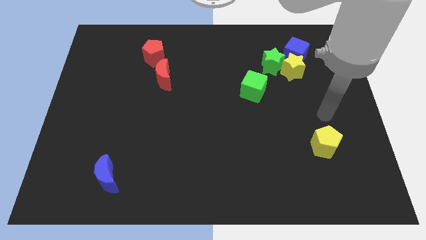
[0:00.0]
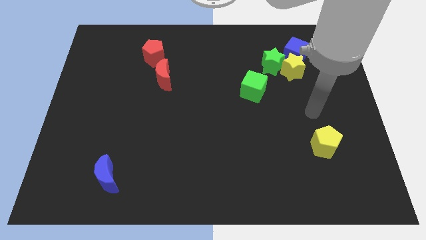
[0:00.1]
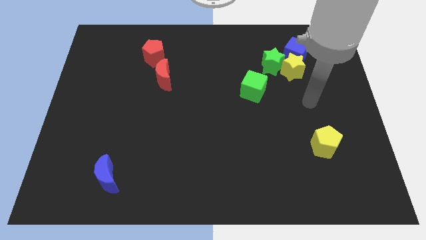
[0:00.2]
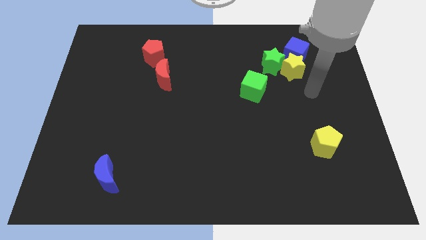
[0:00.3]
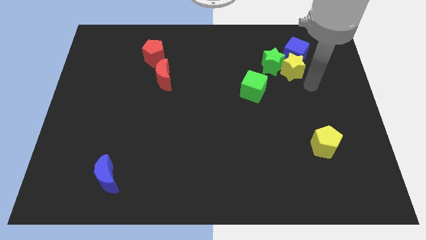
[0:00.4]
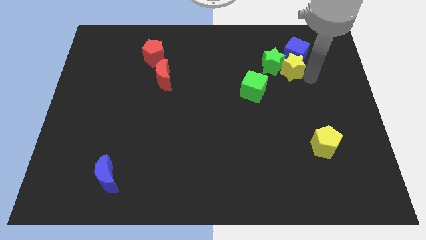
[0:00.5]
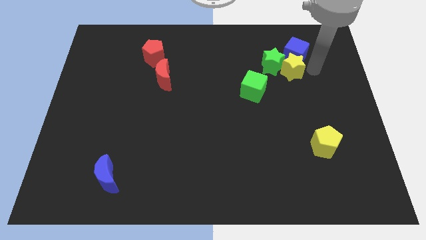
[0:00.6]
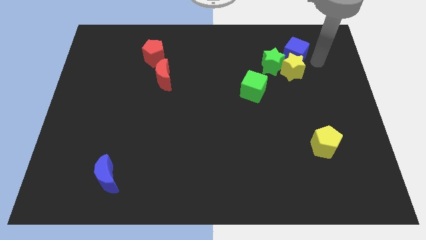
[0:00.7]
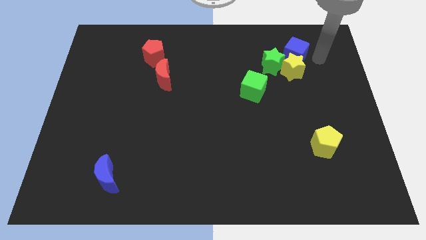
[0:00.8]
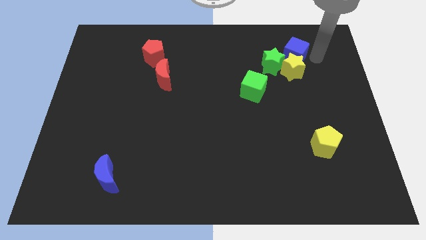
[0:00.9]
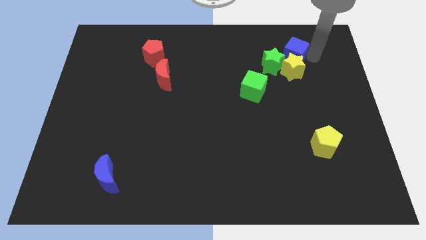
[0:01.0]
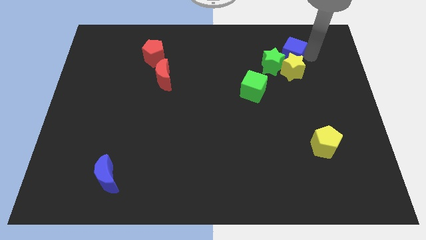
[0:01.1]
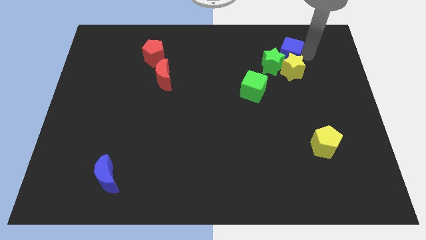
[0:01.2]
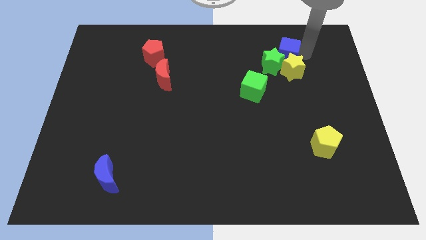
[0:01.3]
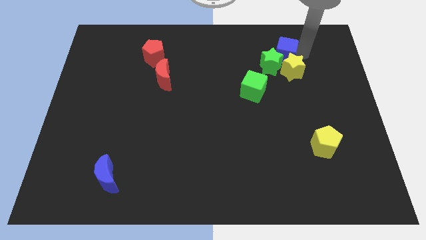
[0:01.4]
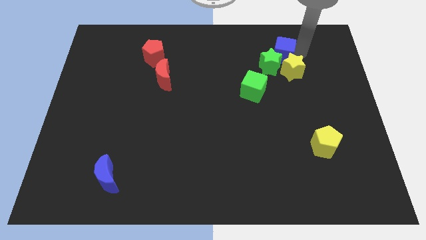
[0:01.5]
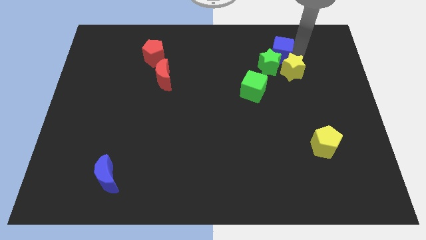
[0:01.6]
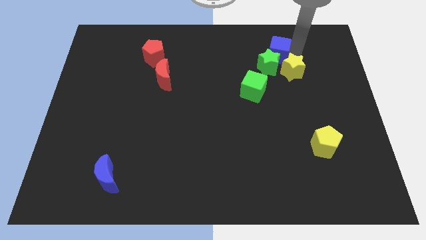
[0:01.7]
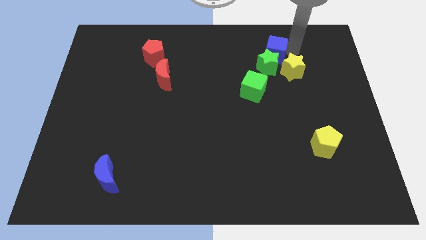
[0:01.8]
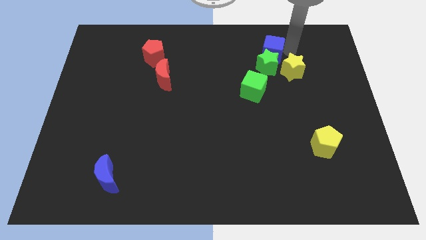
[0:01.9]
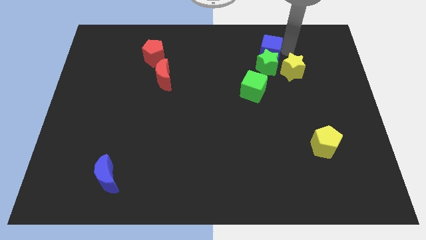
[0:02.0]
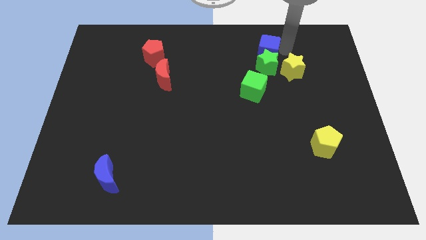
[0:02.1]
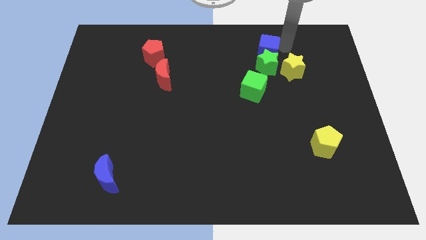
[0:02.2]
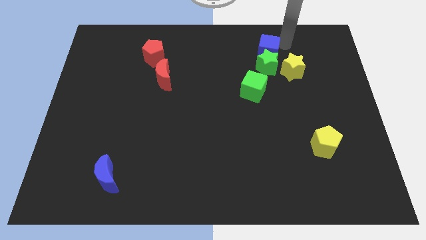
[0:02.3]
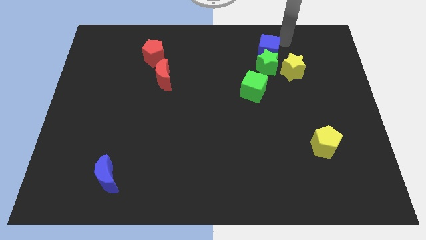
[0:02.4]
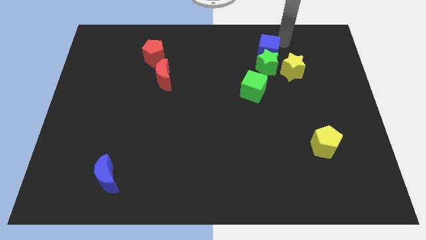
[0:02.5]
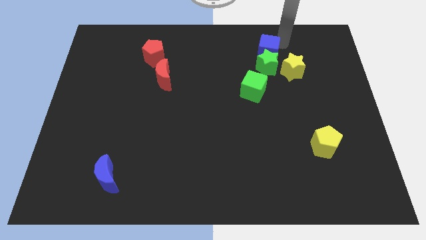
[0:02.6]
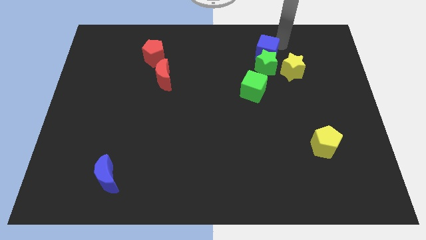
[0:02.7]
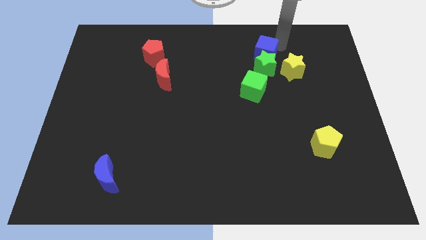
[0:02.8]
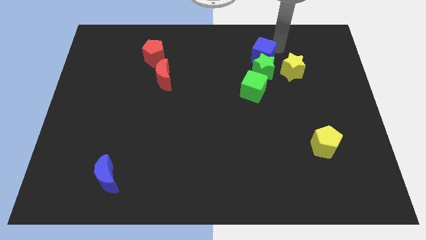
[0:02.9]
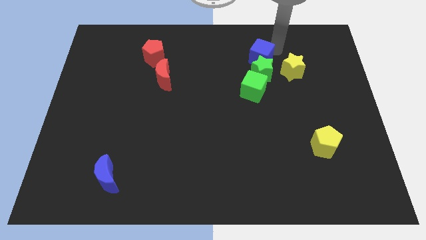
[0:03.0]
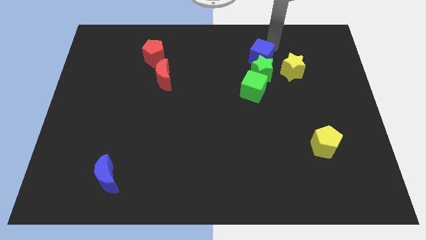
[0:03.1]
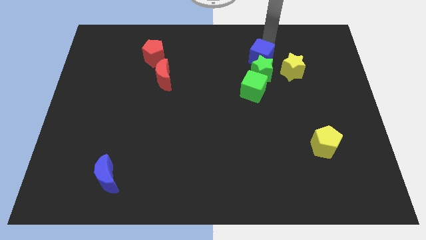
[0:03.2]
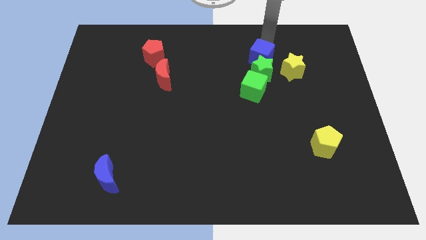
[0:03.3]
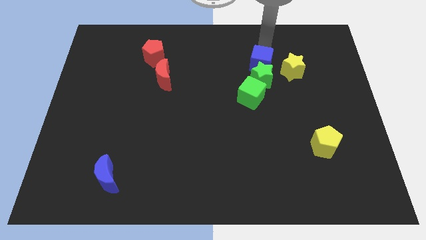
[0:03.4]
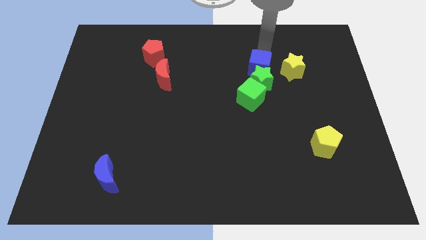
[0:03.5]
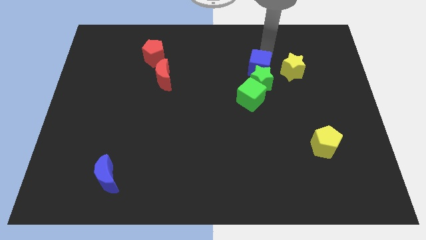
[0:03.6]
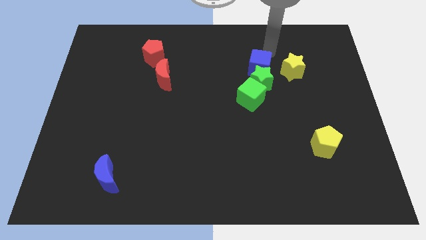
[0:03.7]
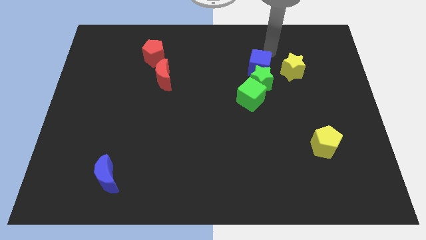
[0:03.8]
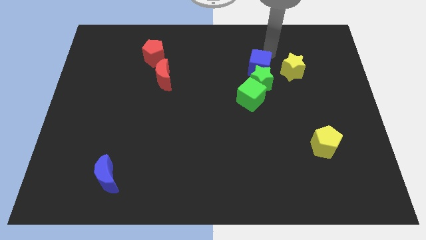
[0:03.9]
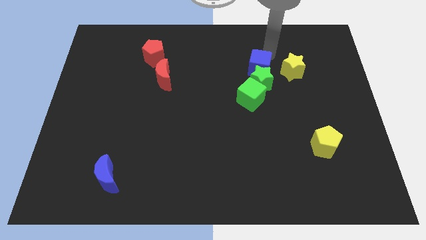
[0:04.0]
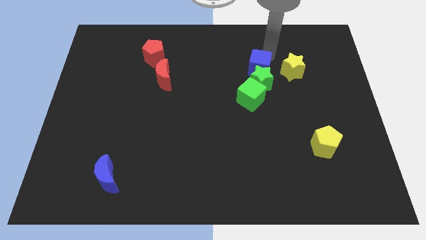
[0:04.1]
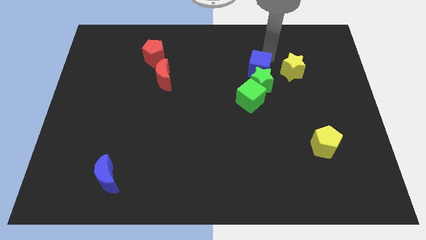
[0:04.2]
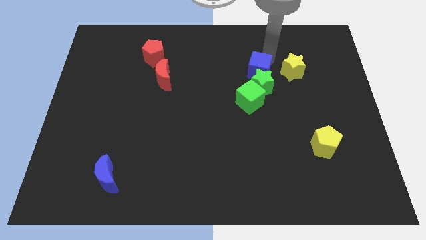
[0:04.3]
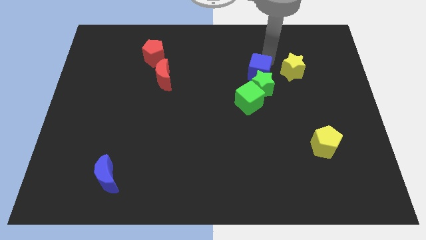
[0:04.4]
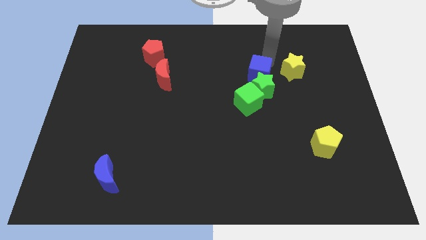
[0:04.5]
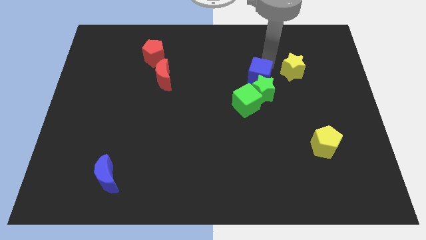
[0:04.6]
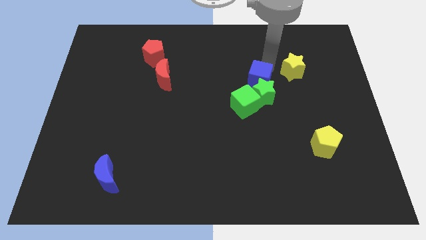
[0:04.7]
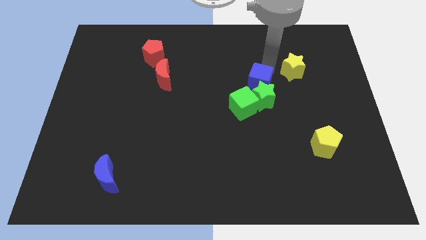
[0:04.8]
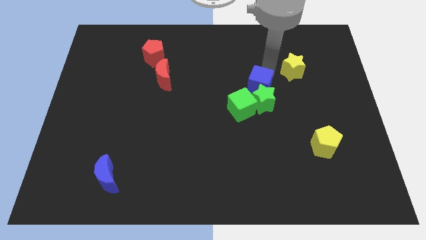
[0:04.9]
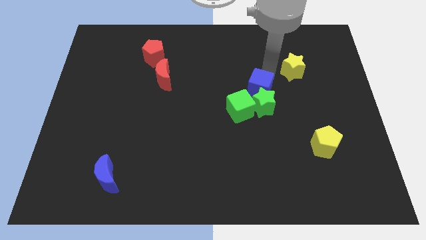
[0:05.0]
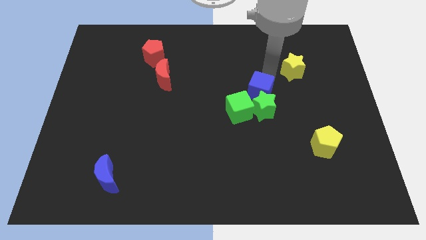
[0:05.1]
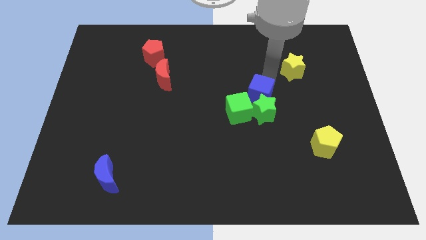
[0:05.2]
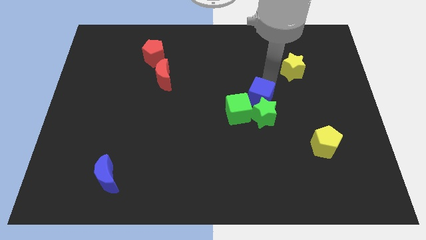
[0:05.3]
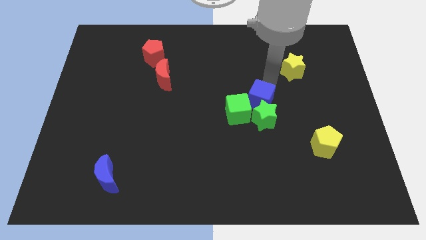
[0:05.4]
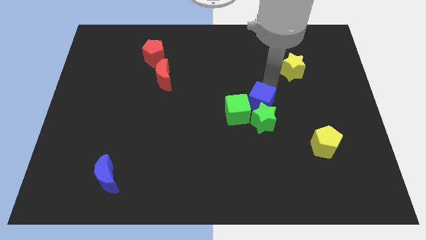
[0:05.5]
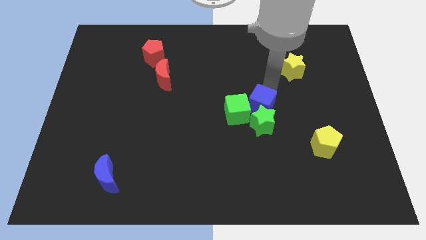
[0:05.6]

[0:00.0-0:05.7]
move the blue cube next to the green cube

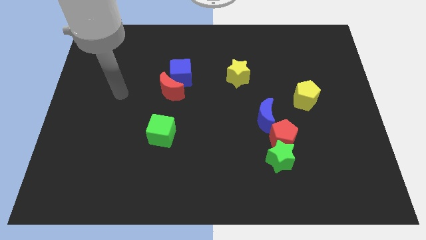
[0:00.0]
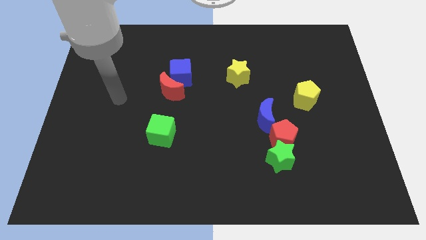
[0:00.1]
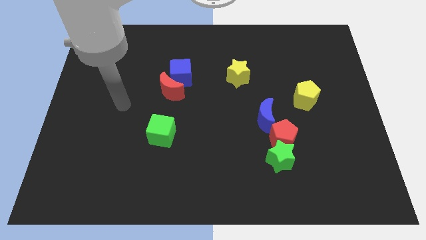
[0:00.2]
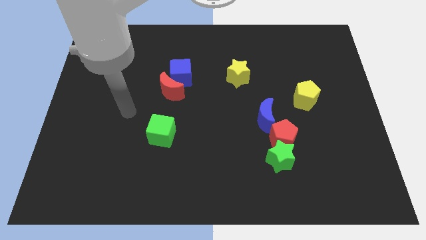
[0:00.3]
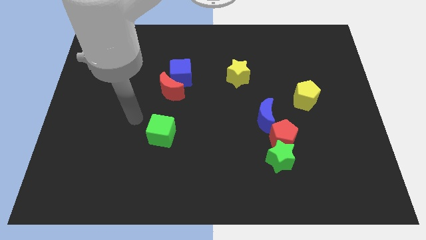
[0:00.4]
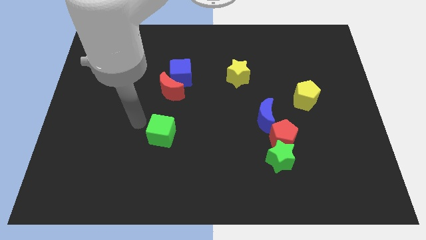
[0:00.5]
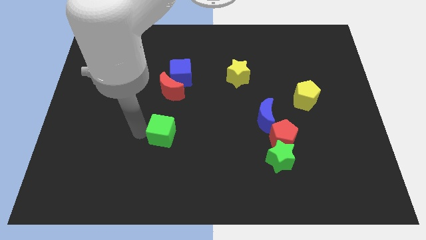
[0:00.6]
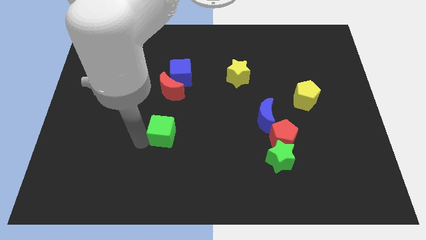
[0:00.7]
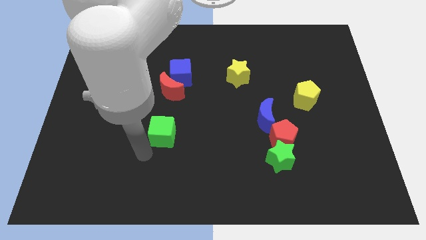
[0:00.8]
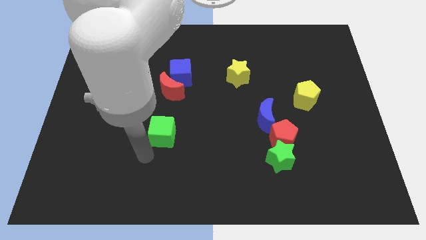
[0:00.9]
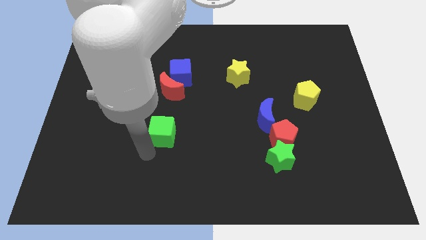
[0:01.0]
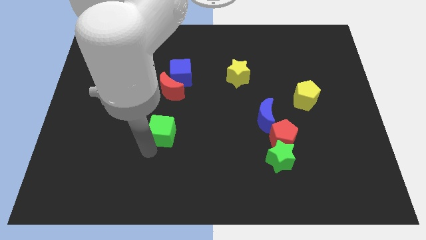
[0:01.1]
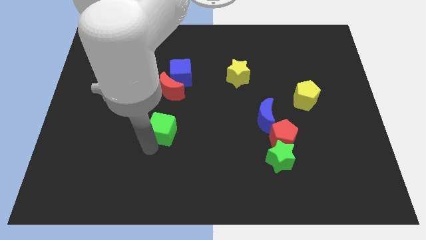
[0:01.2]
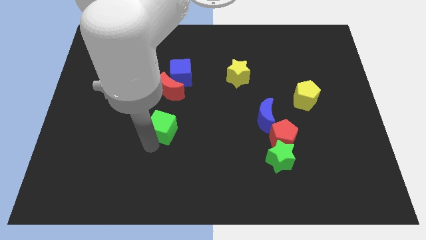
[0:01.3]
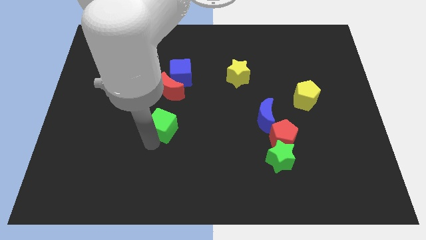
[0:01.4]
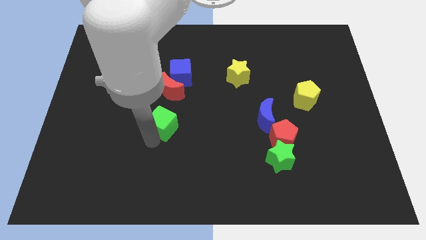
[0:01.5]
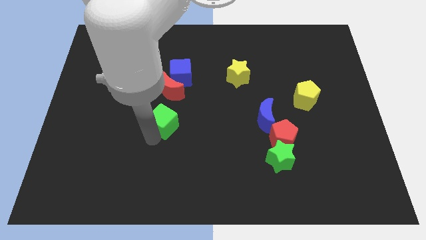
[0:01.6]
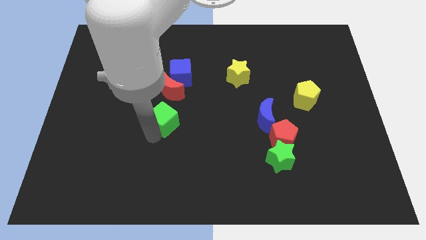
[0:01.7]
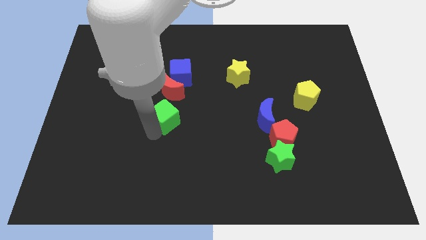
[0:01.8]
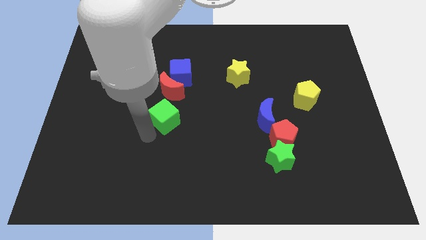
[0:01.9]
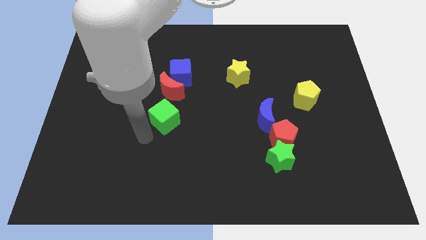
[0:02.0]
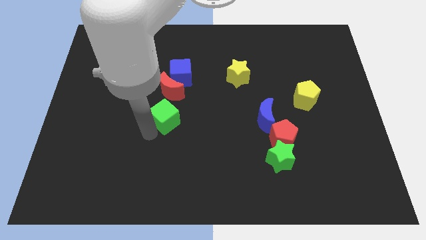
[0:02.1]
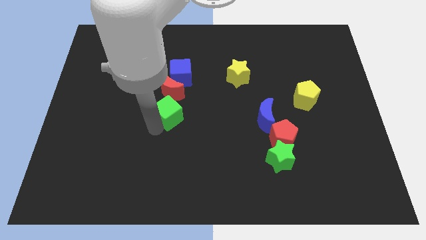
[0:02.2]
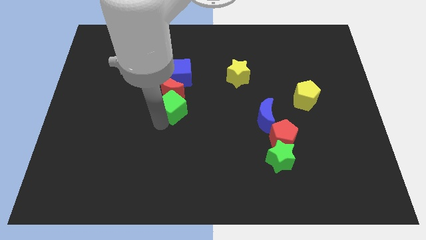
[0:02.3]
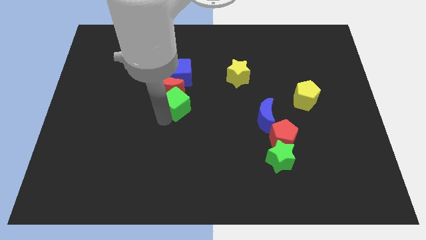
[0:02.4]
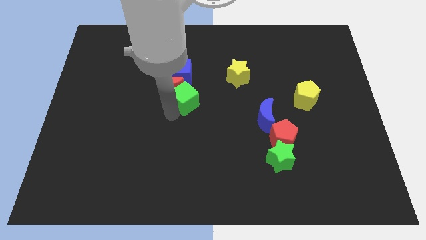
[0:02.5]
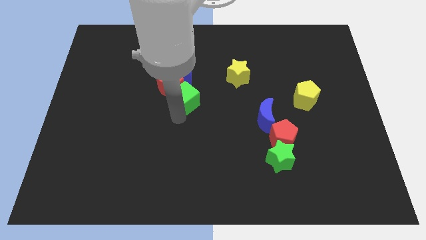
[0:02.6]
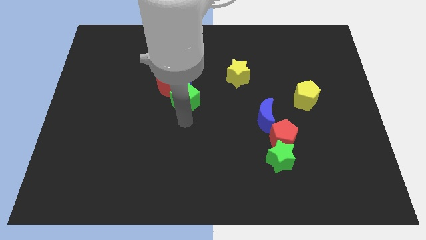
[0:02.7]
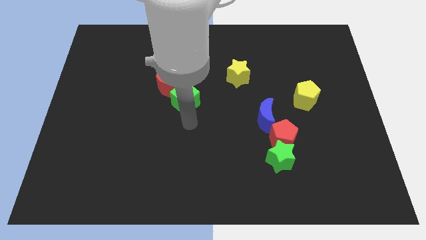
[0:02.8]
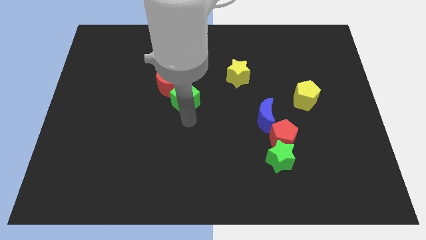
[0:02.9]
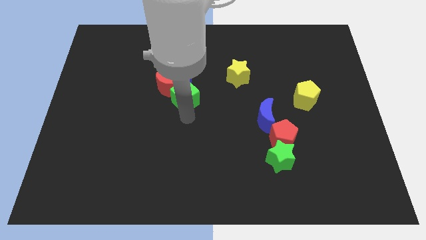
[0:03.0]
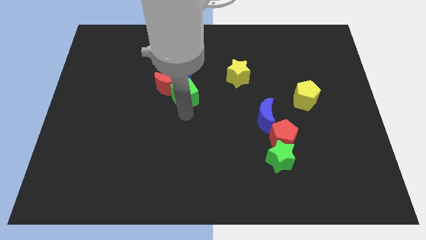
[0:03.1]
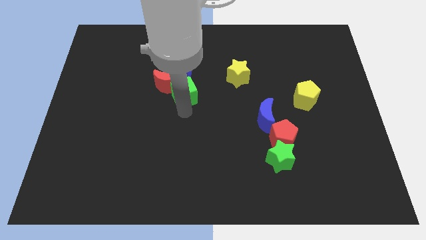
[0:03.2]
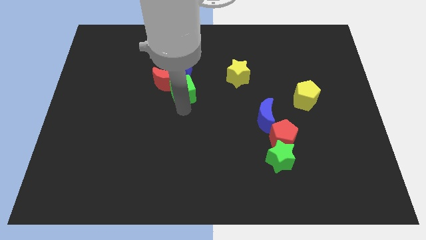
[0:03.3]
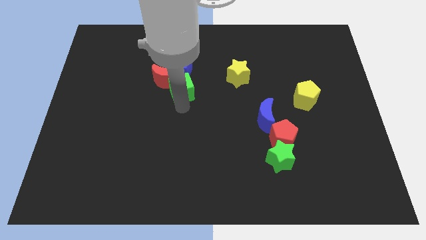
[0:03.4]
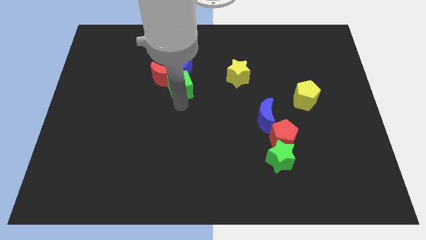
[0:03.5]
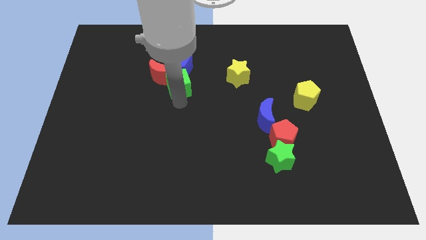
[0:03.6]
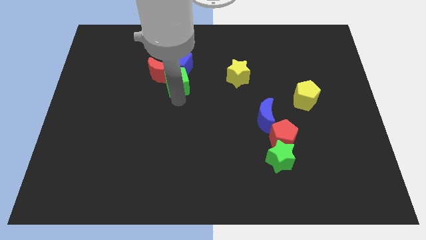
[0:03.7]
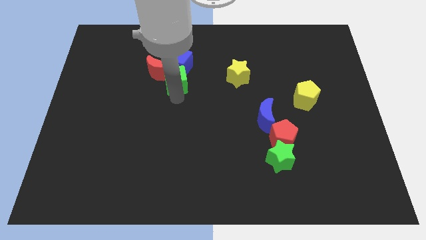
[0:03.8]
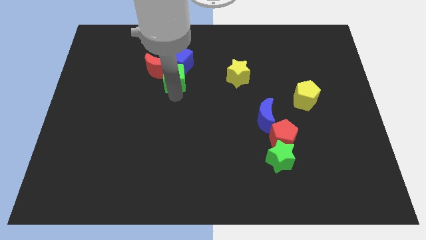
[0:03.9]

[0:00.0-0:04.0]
put the green cube next to the blue cube
